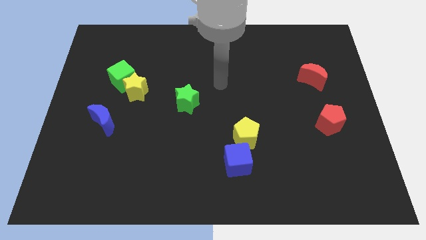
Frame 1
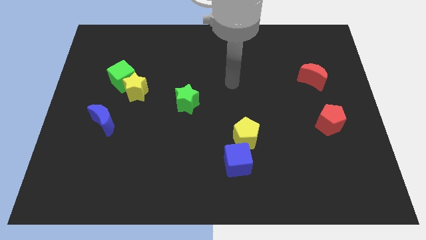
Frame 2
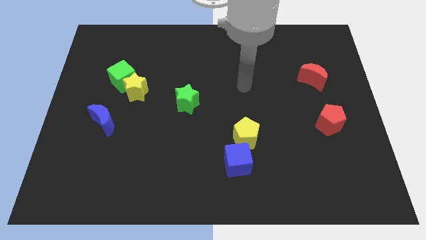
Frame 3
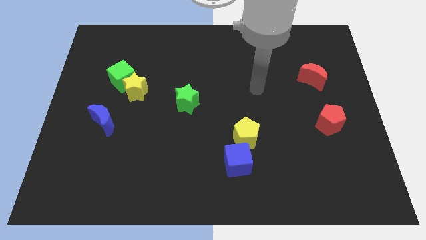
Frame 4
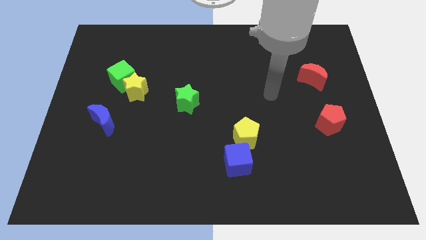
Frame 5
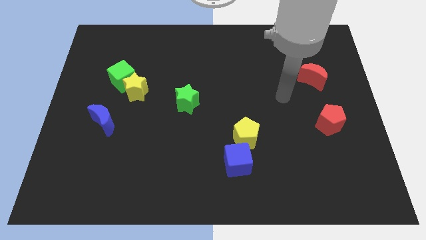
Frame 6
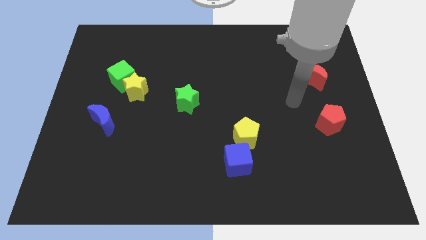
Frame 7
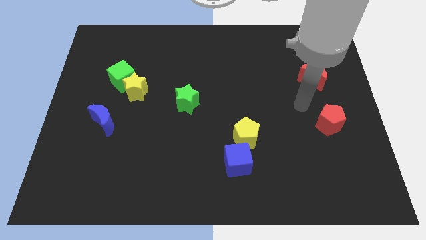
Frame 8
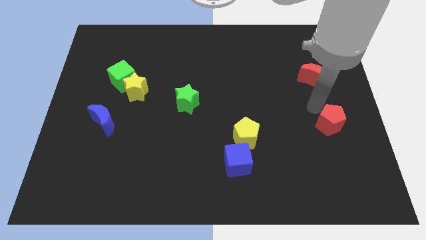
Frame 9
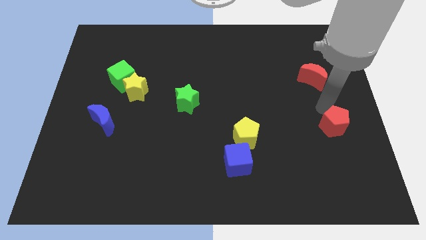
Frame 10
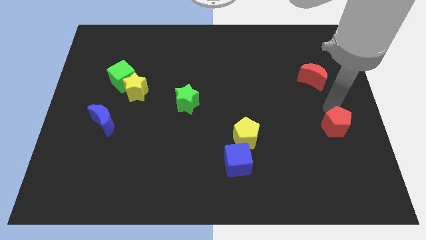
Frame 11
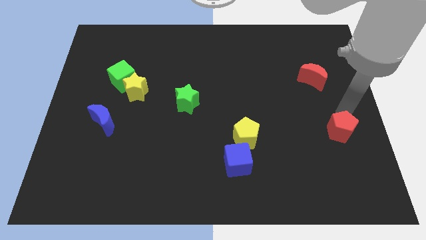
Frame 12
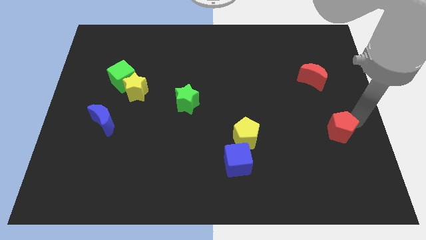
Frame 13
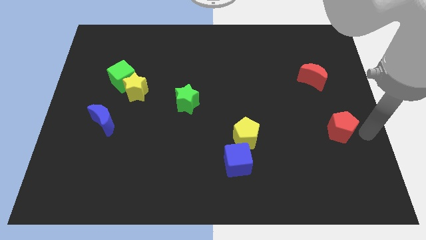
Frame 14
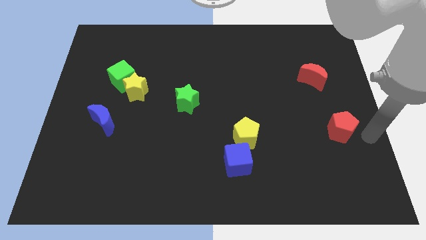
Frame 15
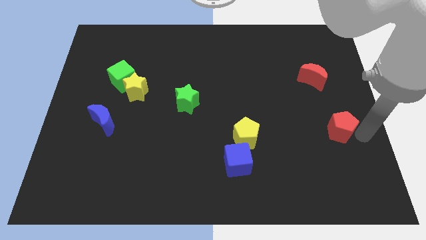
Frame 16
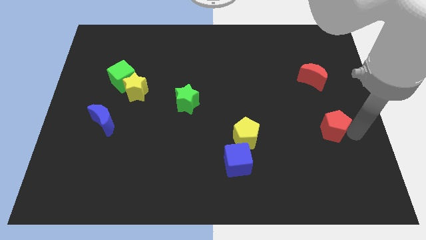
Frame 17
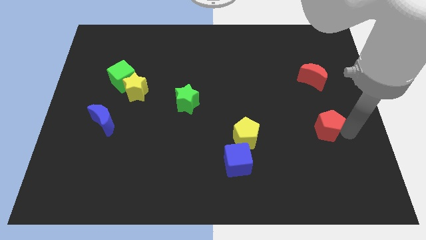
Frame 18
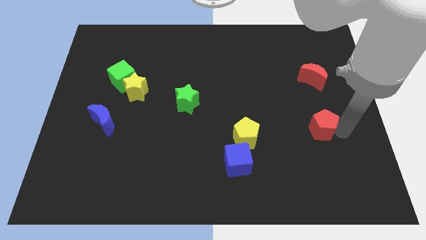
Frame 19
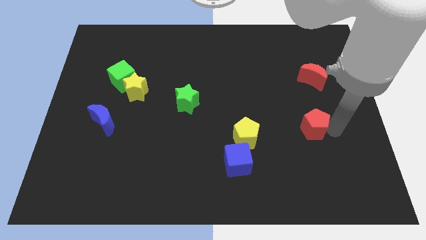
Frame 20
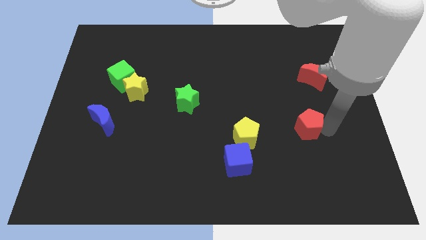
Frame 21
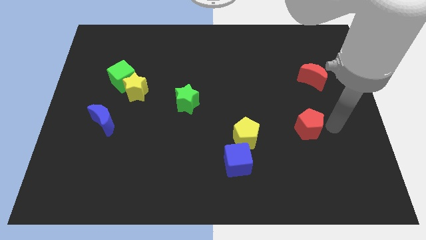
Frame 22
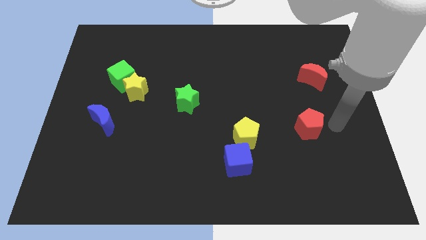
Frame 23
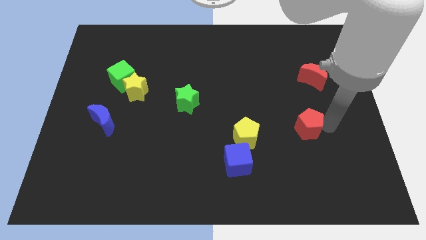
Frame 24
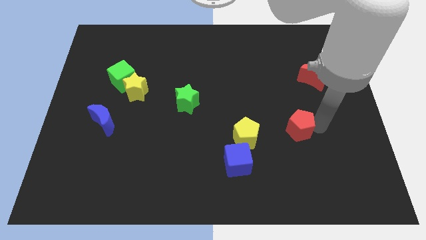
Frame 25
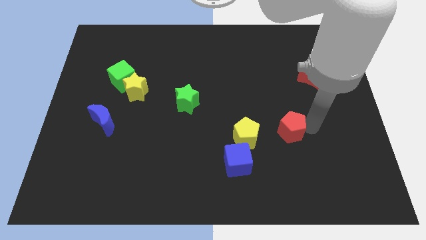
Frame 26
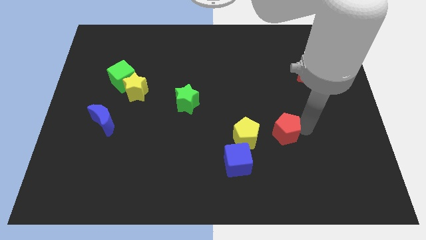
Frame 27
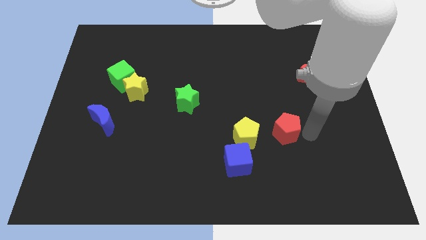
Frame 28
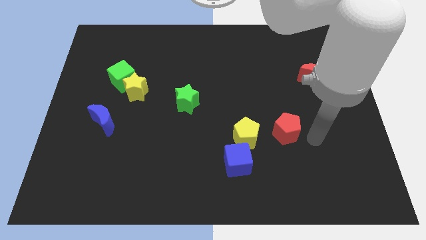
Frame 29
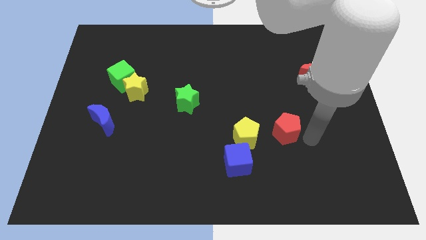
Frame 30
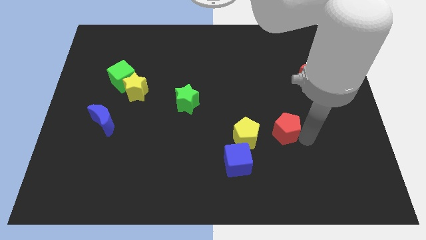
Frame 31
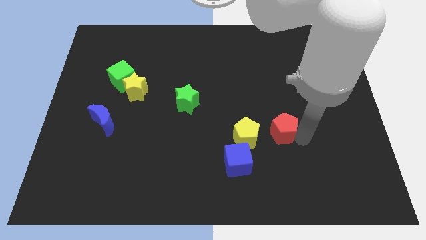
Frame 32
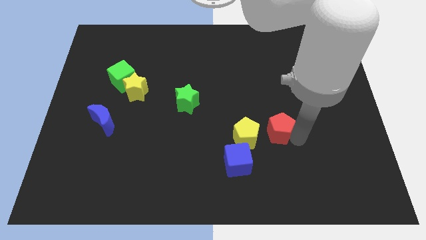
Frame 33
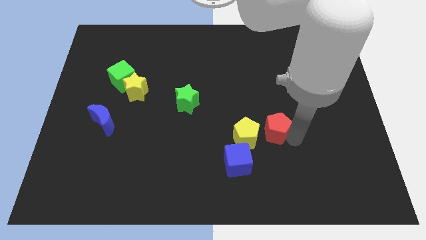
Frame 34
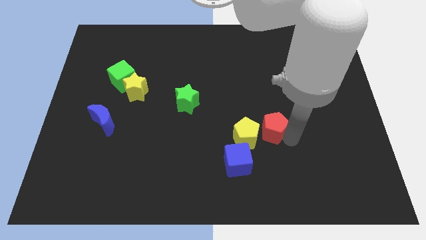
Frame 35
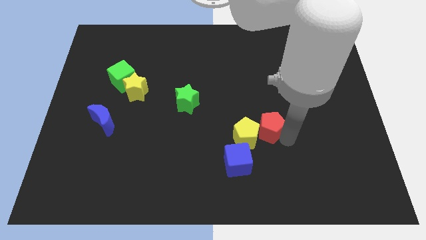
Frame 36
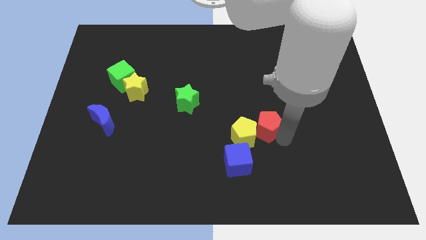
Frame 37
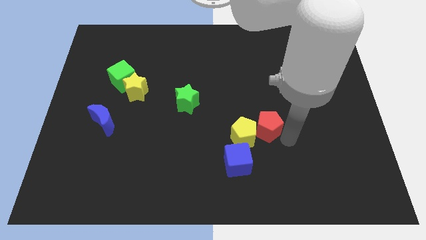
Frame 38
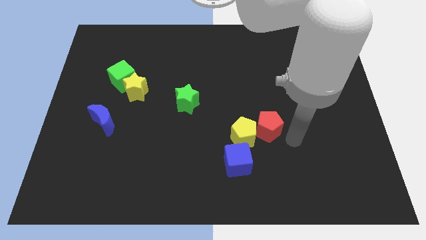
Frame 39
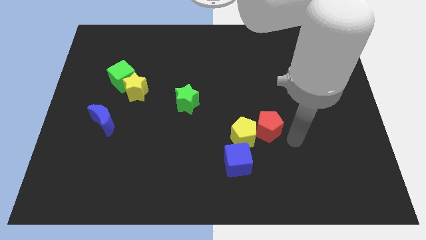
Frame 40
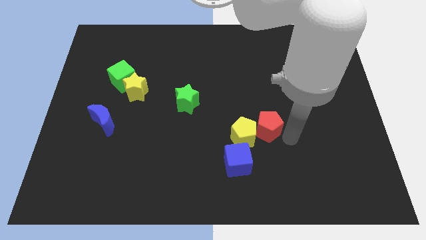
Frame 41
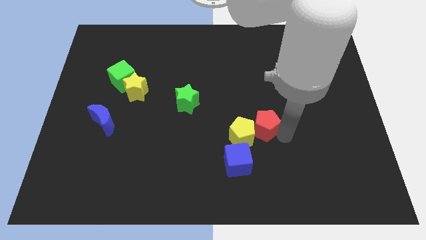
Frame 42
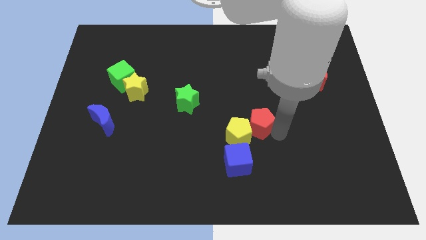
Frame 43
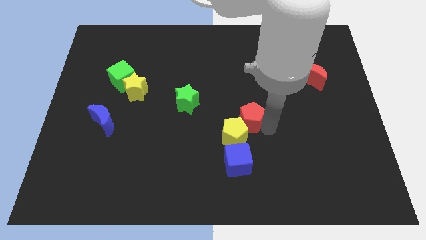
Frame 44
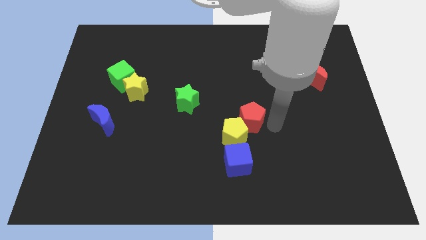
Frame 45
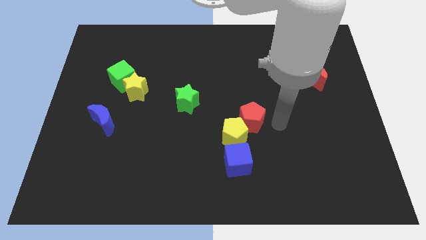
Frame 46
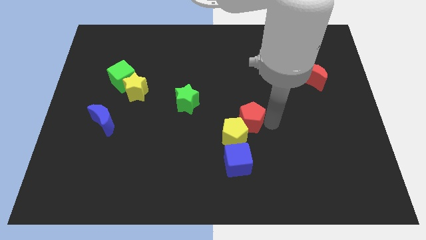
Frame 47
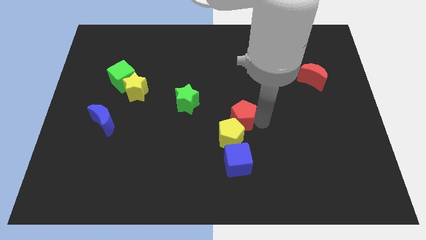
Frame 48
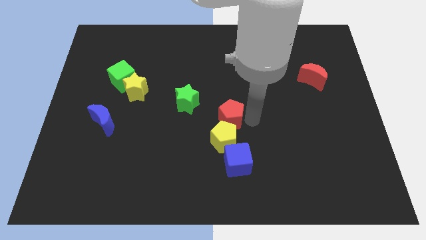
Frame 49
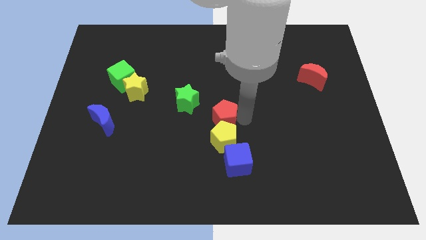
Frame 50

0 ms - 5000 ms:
slide the red pentagon to the top left of the yellow pentagon

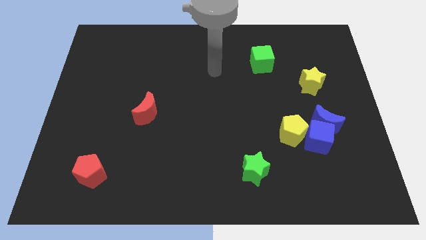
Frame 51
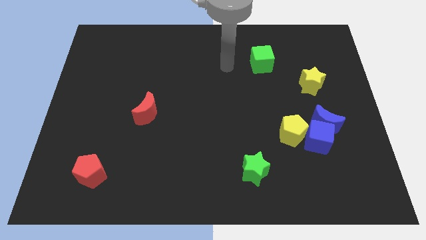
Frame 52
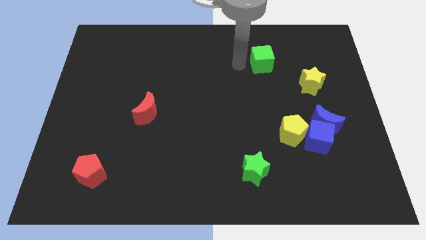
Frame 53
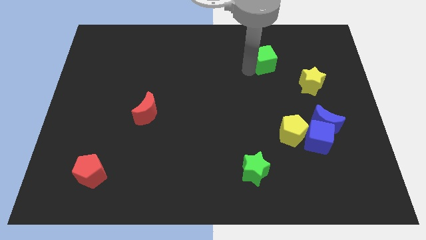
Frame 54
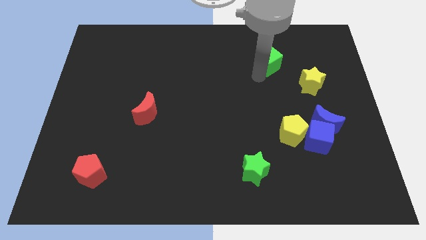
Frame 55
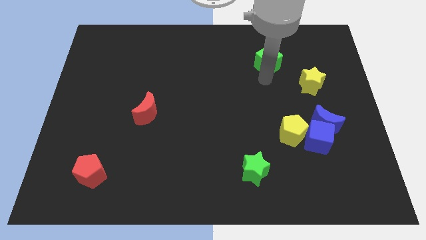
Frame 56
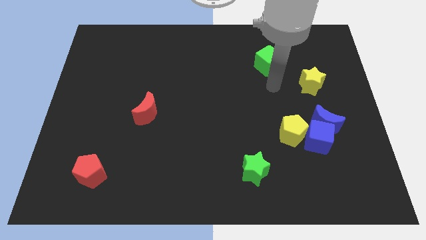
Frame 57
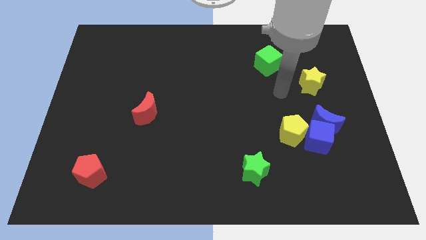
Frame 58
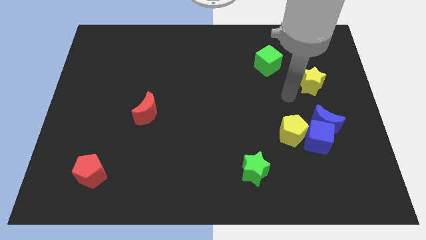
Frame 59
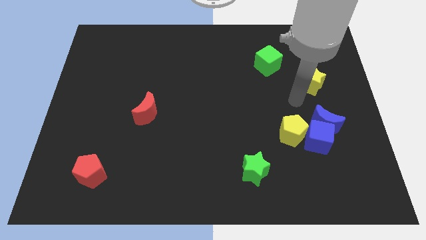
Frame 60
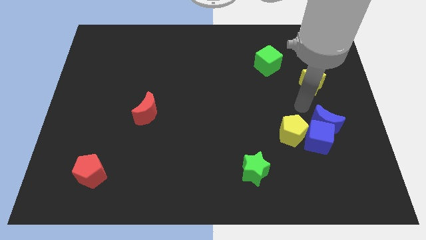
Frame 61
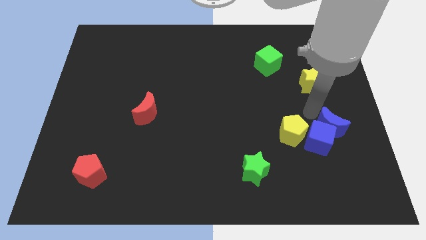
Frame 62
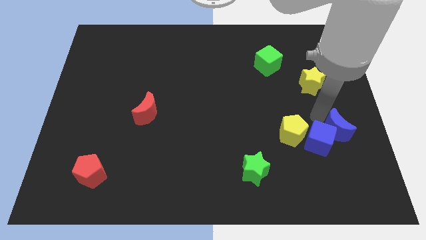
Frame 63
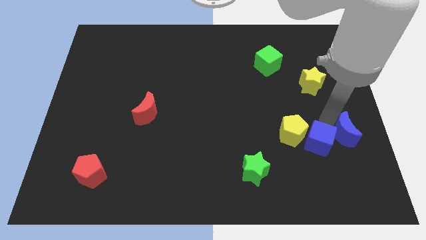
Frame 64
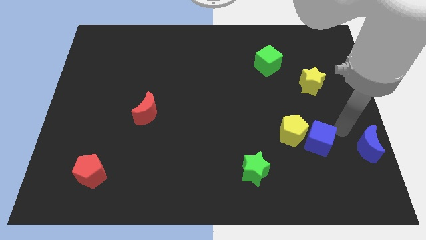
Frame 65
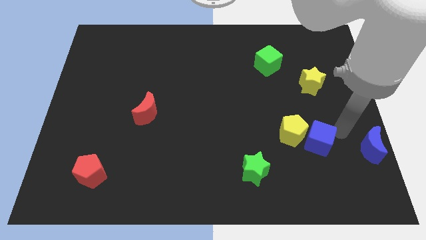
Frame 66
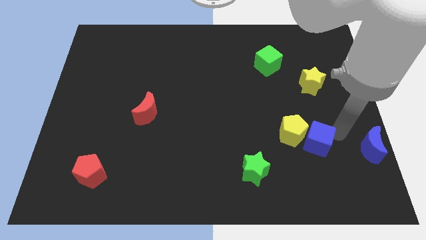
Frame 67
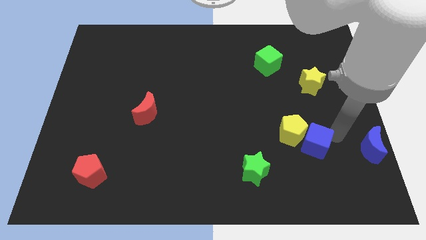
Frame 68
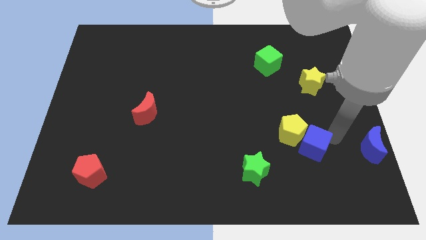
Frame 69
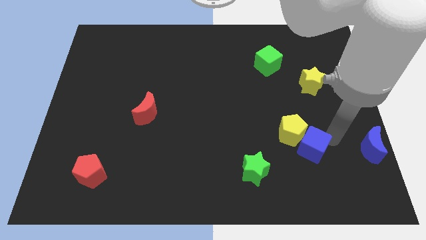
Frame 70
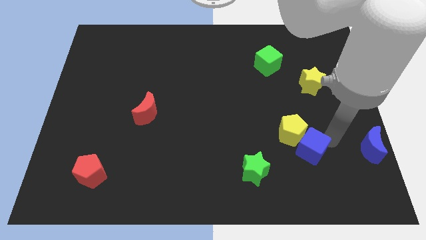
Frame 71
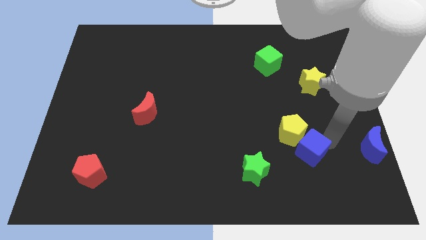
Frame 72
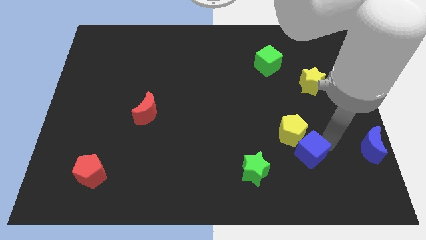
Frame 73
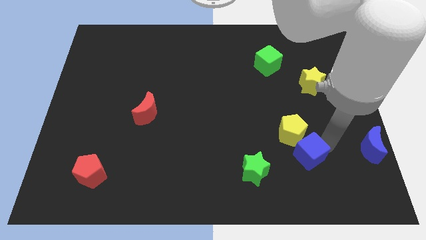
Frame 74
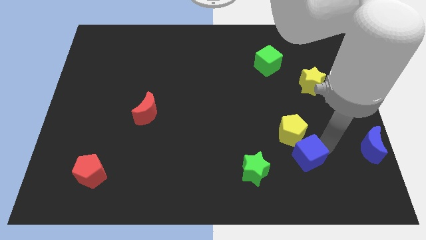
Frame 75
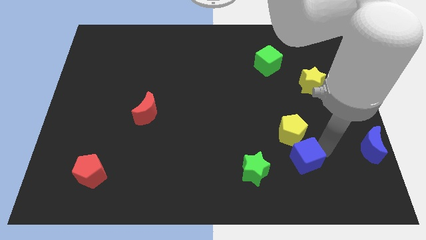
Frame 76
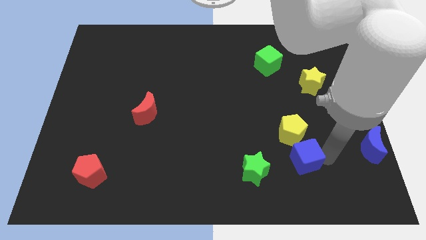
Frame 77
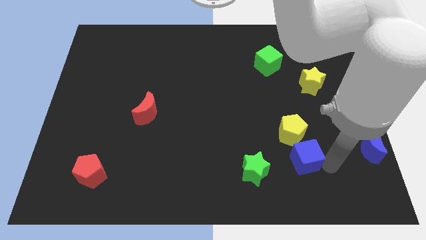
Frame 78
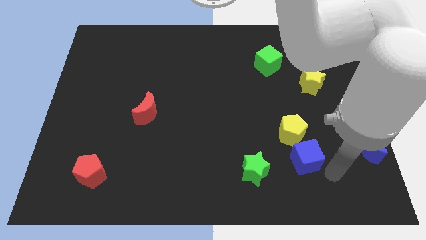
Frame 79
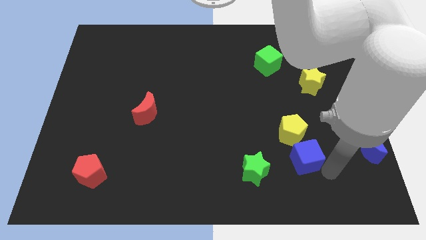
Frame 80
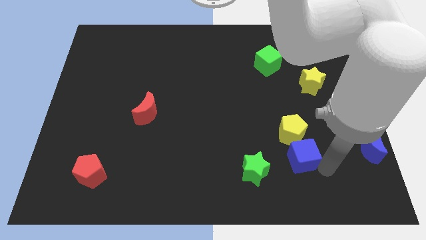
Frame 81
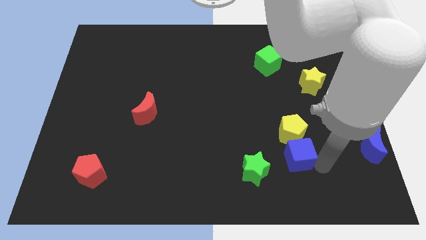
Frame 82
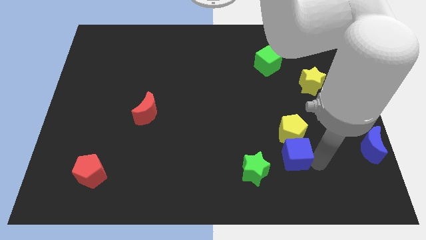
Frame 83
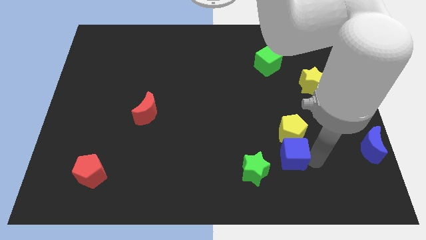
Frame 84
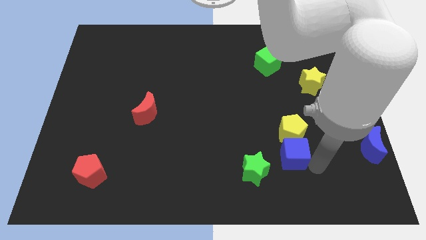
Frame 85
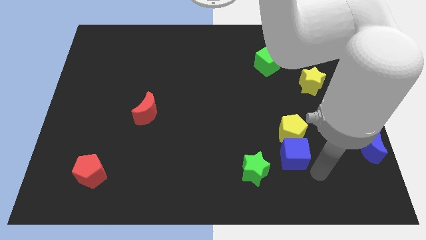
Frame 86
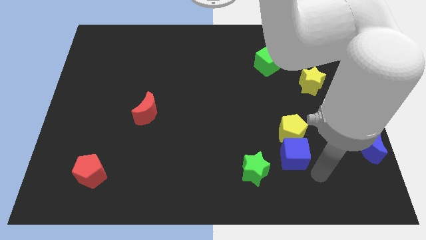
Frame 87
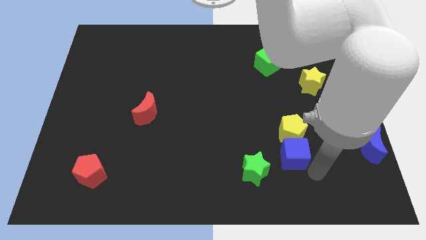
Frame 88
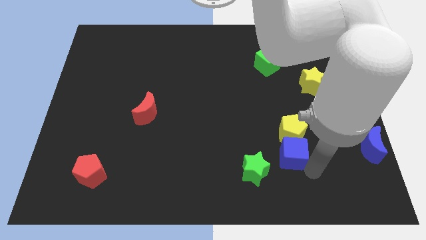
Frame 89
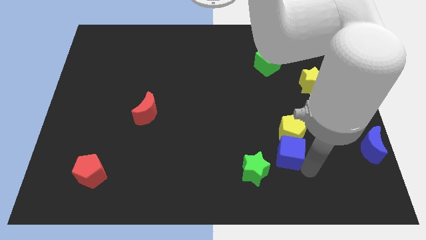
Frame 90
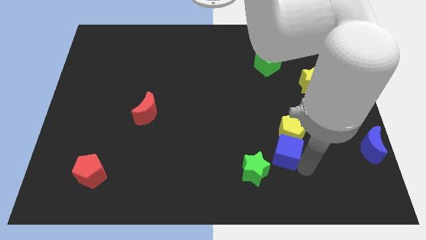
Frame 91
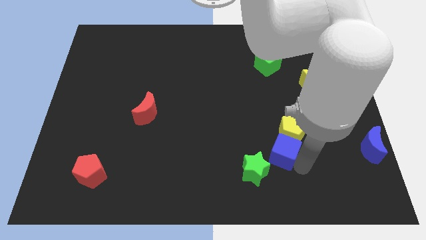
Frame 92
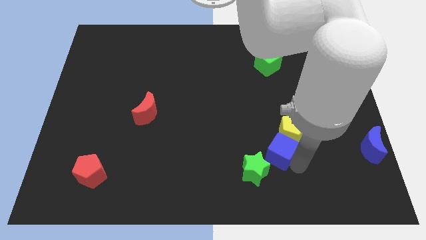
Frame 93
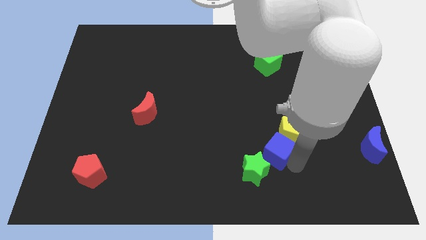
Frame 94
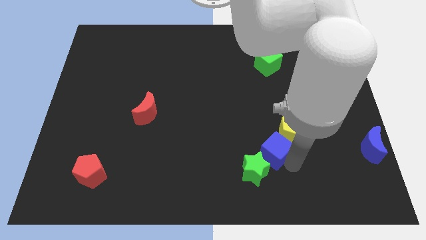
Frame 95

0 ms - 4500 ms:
push the blue cube to the top side of the green star
